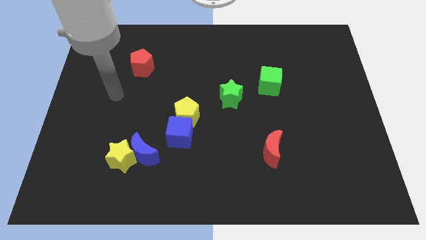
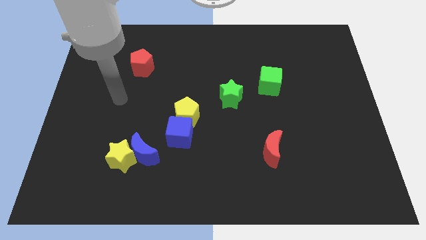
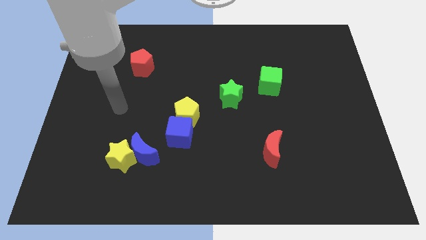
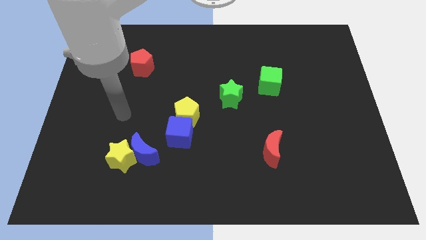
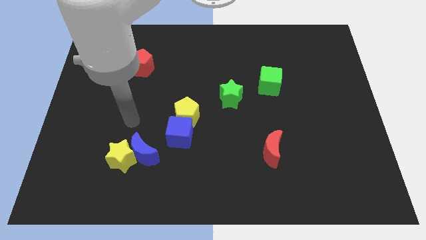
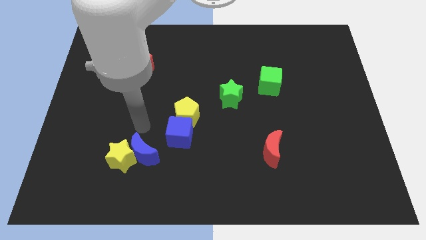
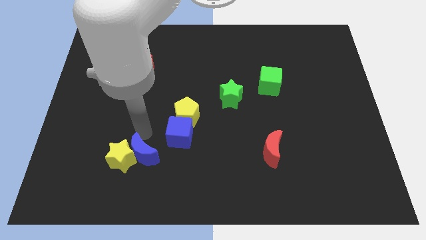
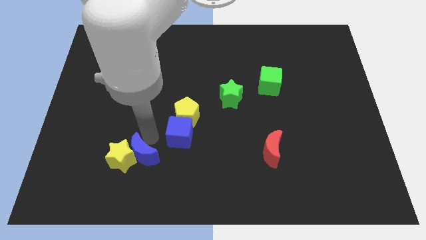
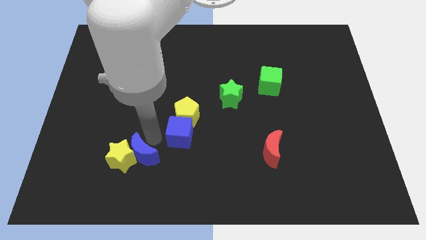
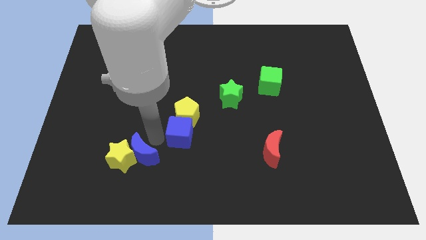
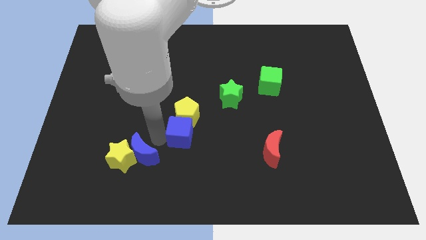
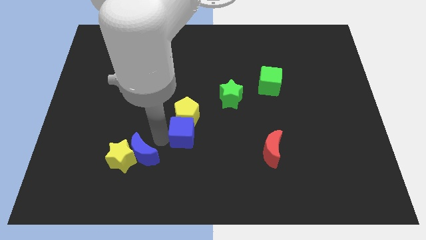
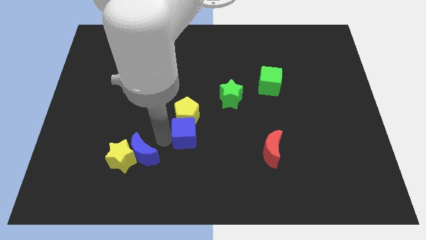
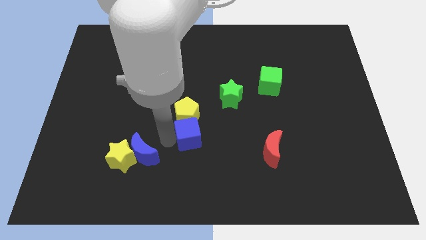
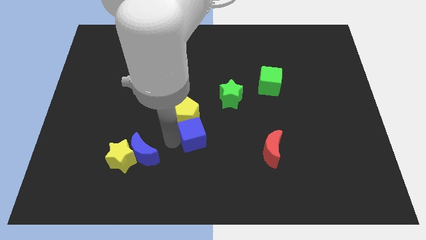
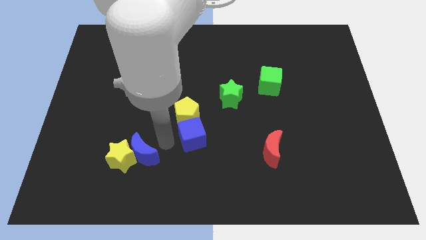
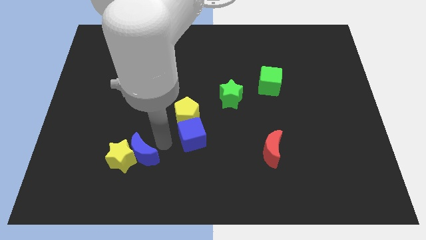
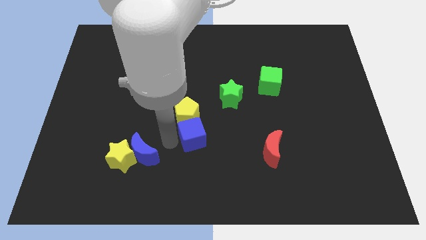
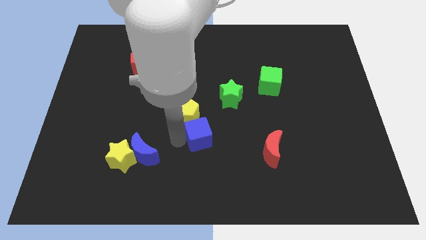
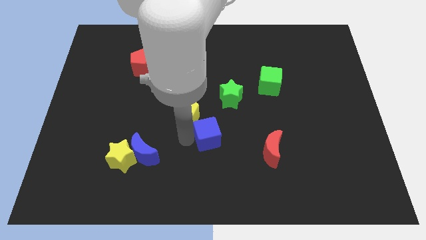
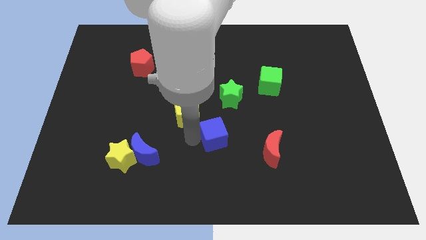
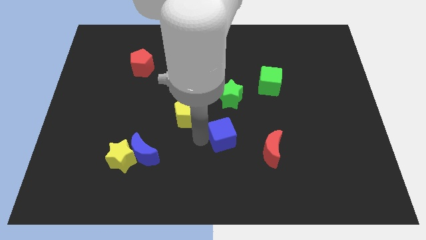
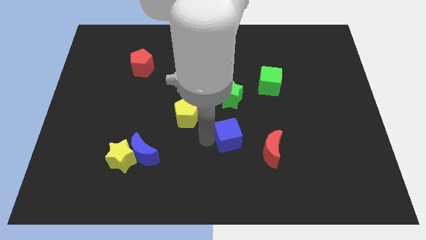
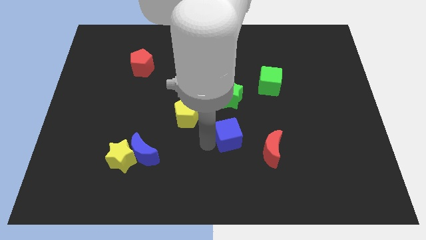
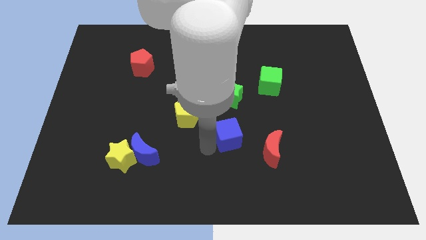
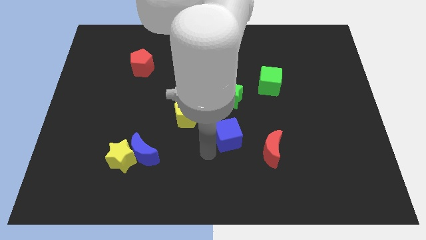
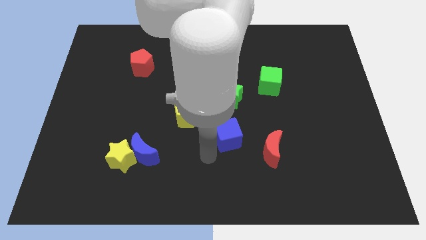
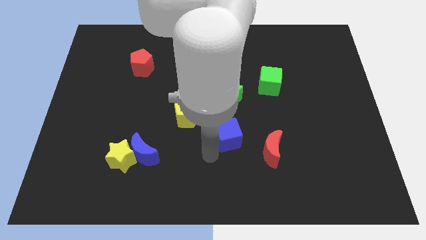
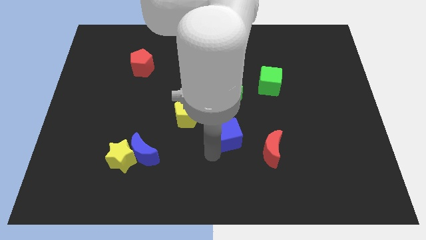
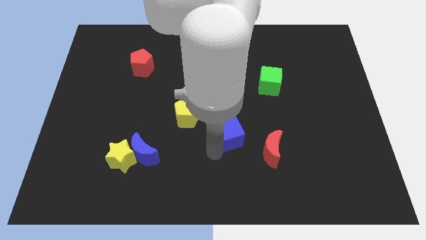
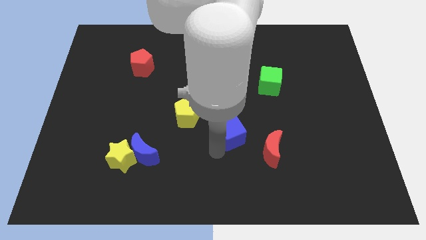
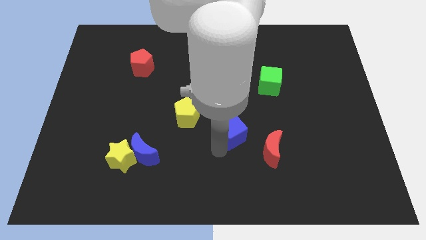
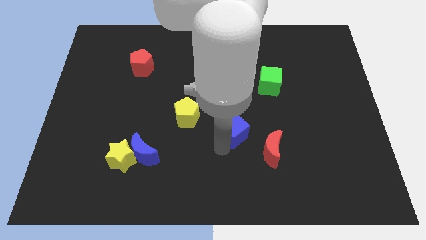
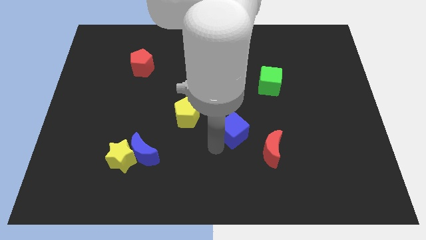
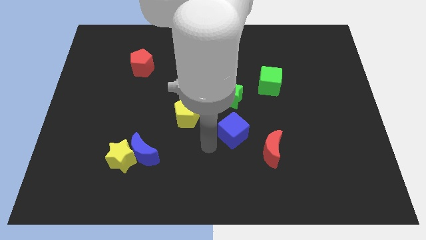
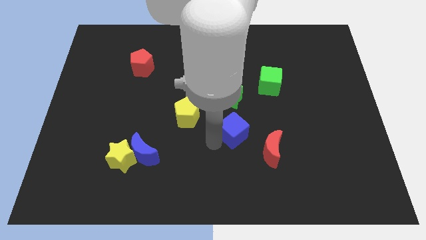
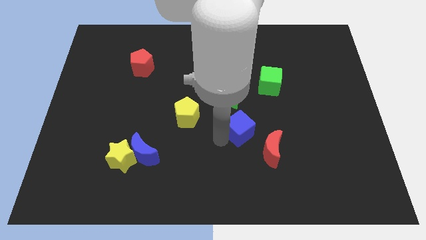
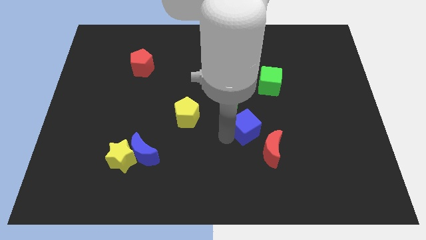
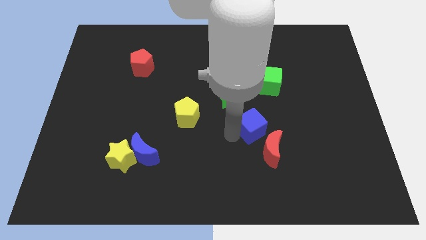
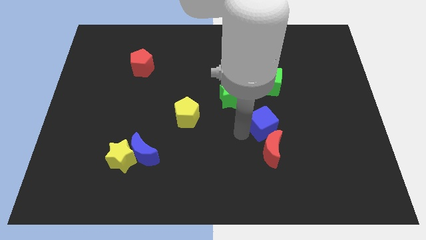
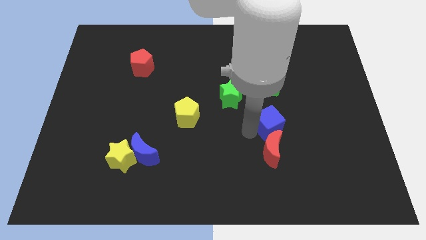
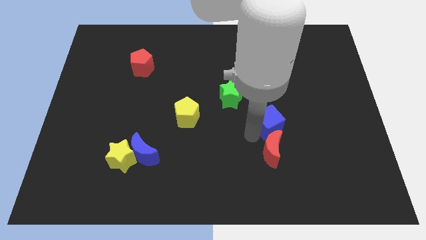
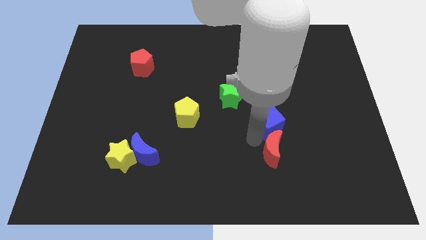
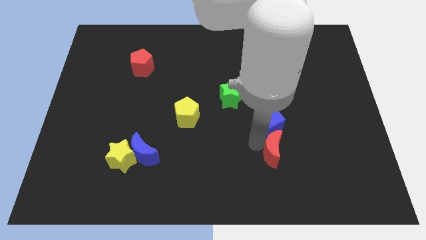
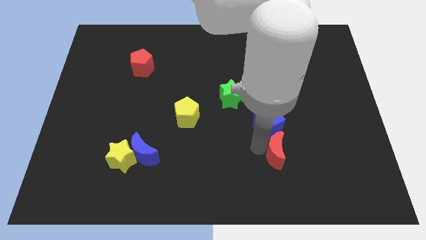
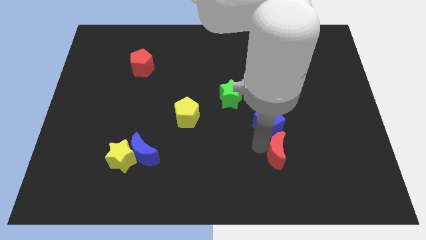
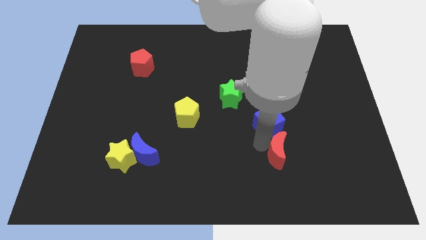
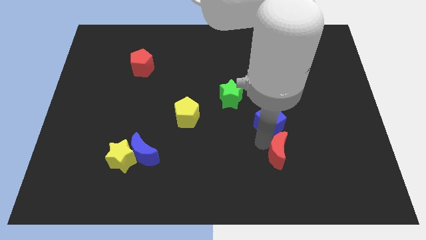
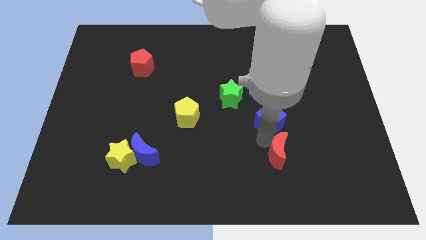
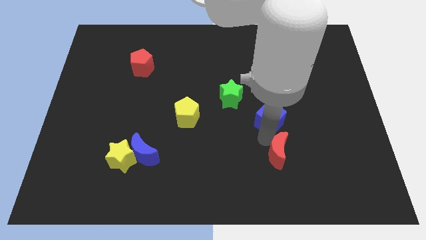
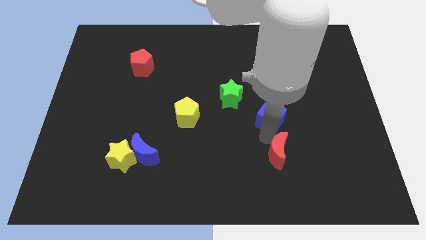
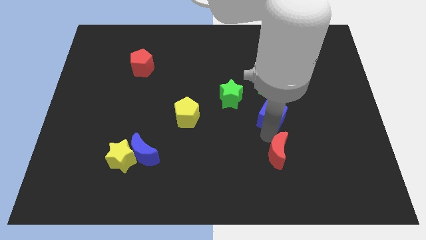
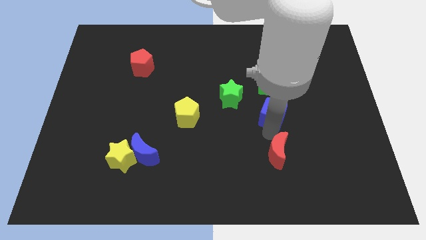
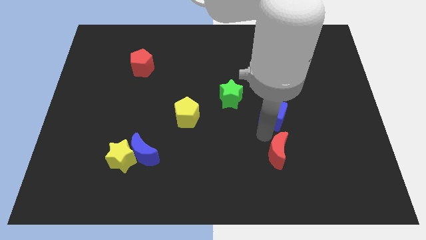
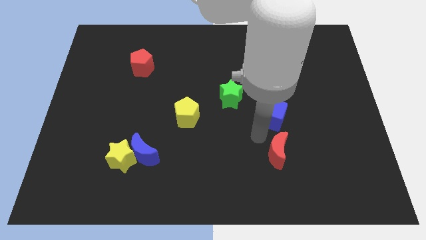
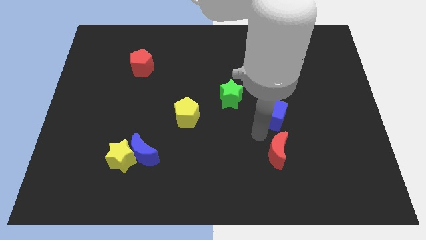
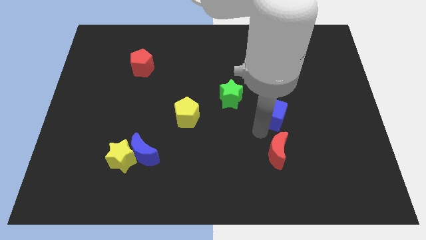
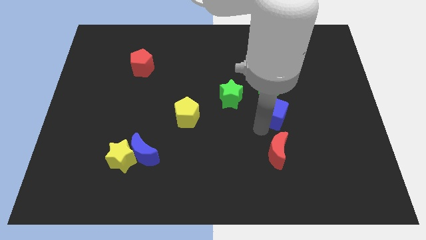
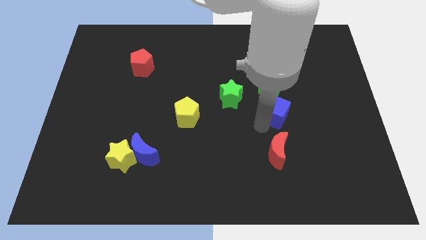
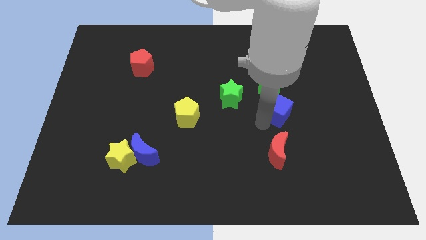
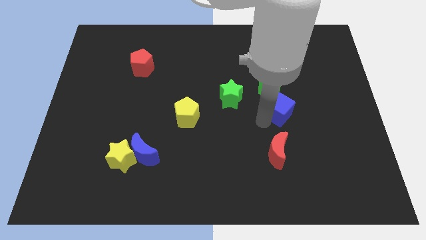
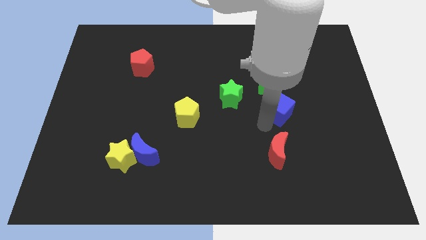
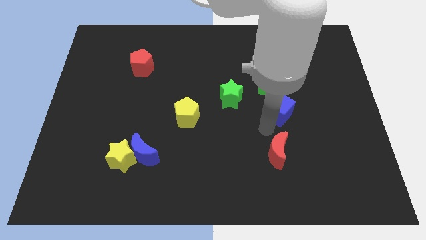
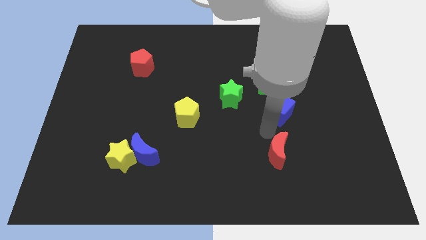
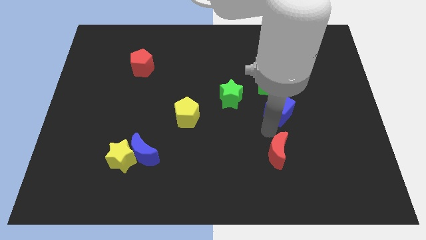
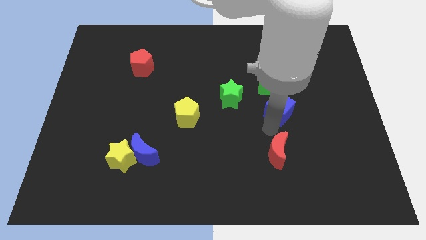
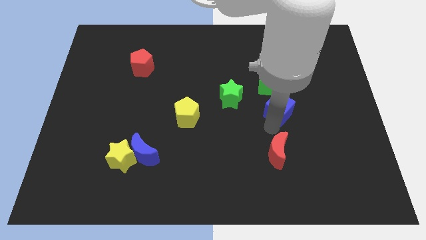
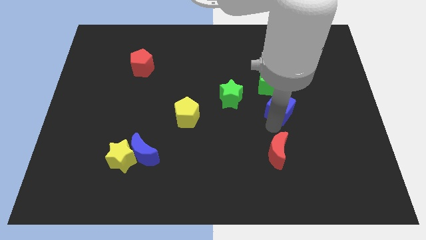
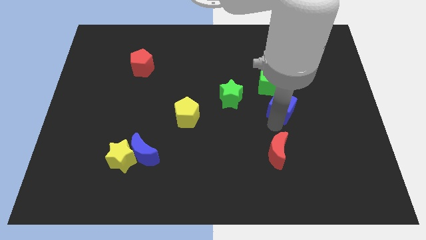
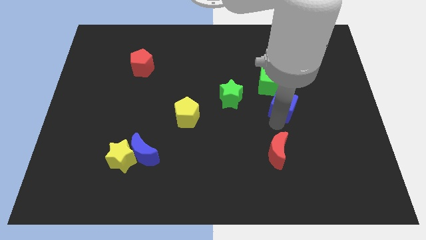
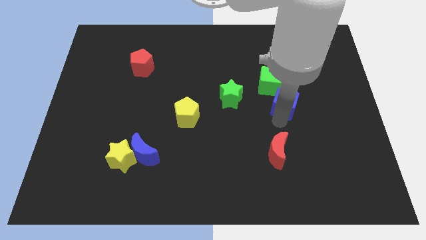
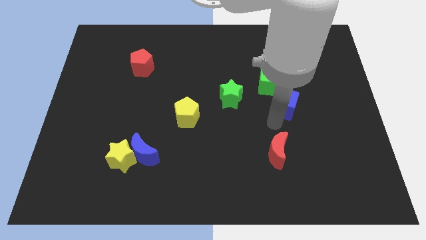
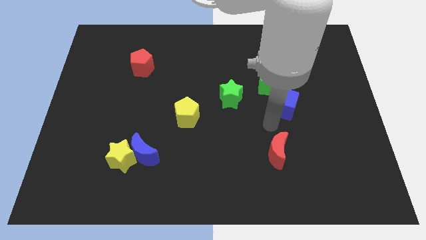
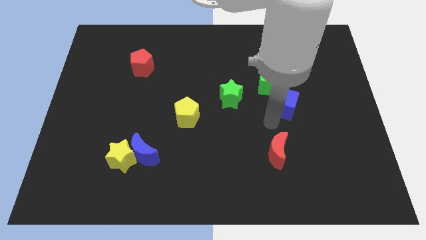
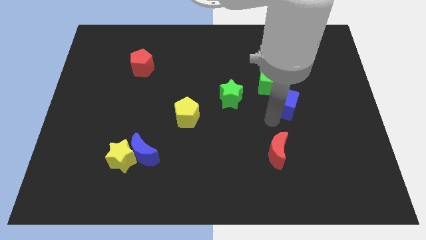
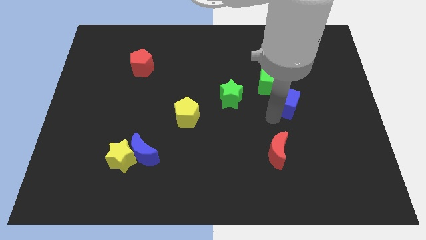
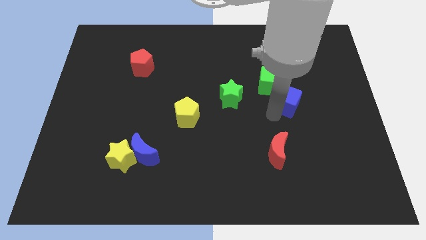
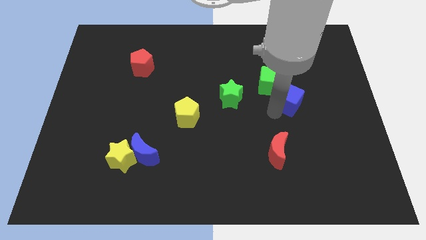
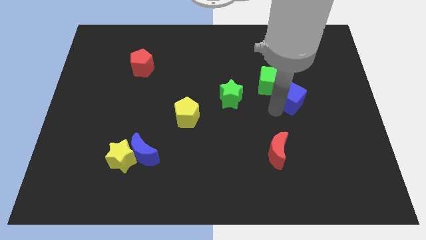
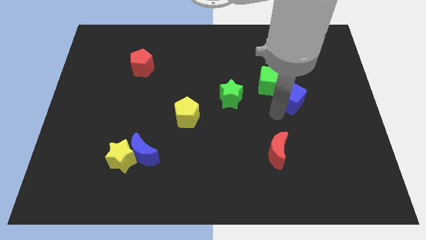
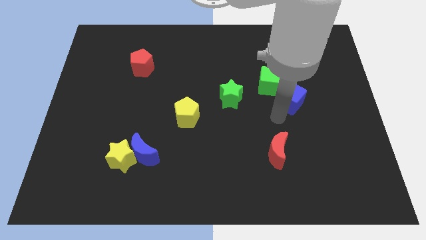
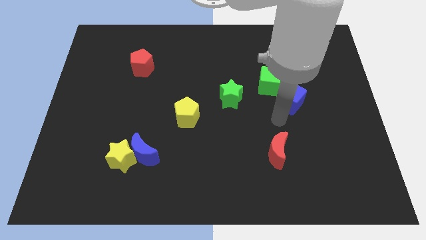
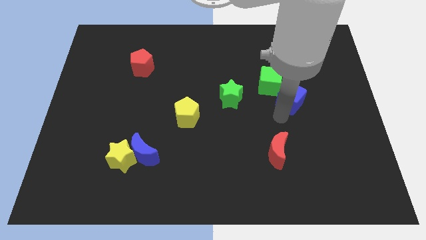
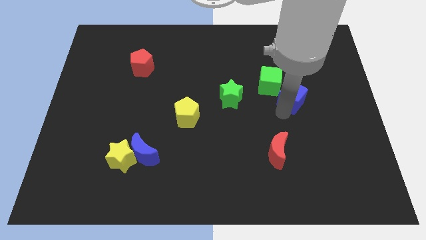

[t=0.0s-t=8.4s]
slide the blue cube to the right side of the green cube
